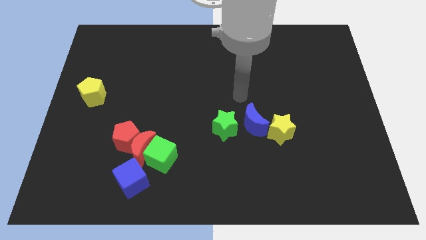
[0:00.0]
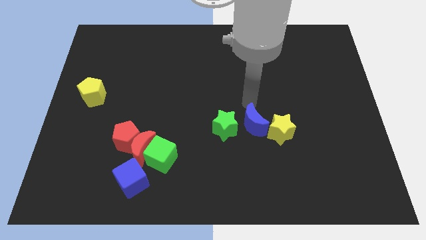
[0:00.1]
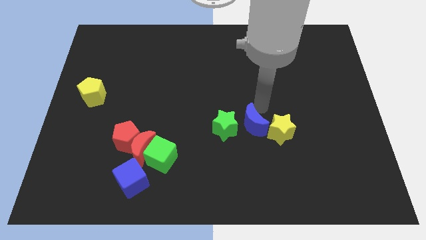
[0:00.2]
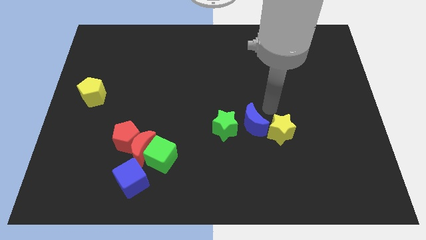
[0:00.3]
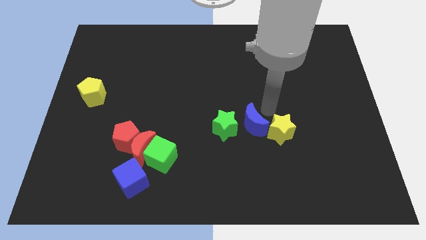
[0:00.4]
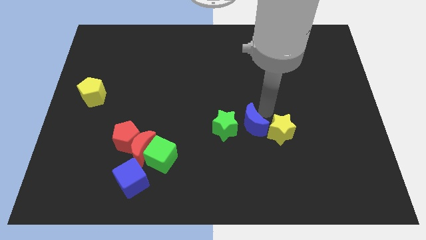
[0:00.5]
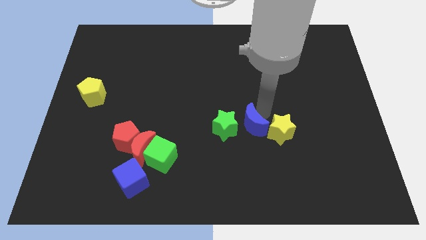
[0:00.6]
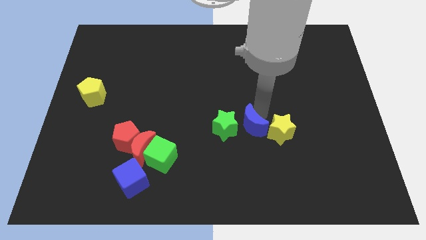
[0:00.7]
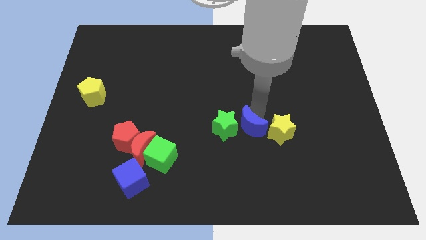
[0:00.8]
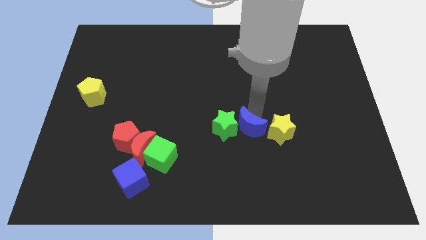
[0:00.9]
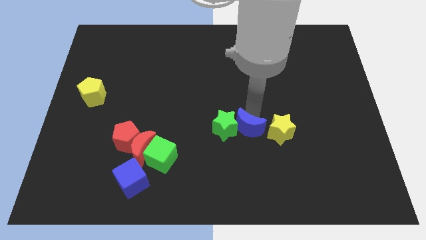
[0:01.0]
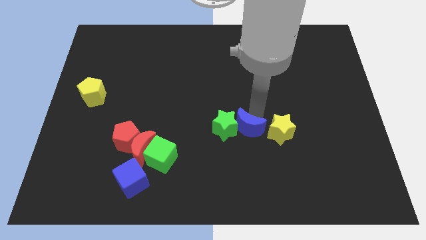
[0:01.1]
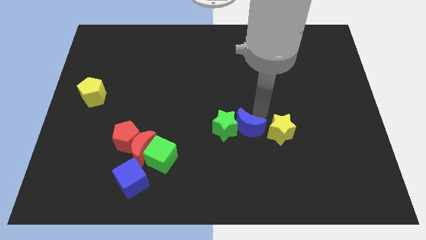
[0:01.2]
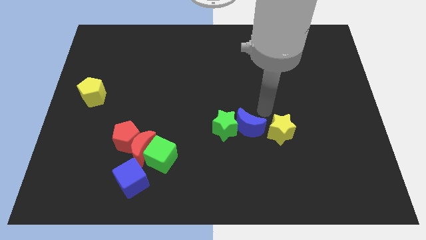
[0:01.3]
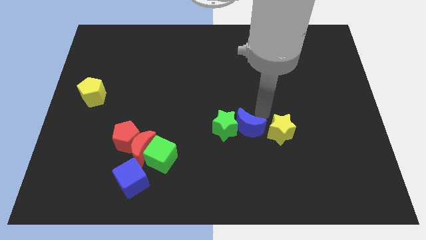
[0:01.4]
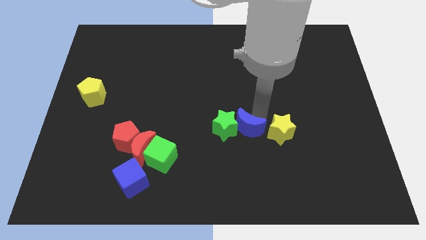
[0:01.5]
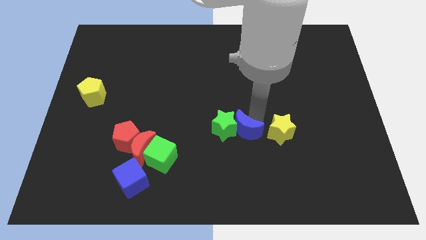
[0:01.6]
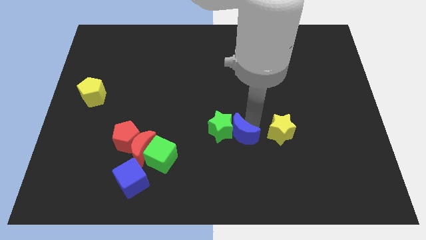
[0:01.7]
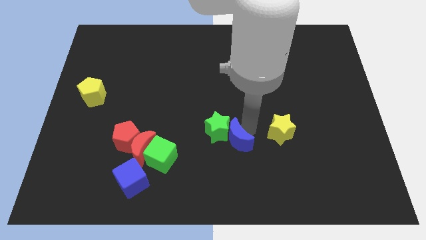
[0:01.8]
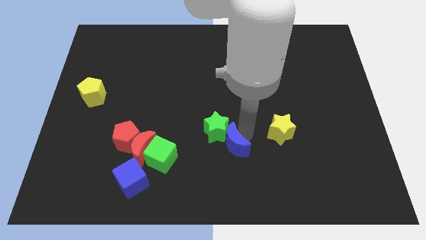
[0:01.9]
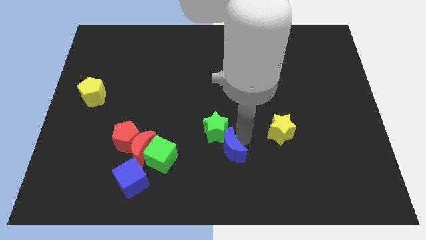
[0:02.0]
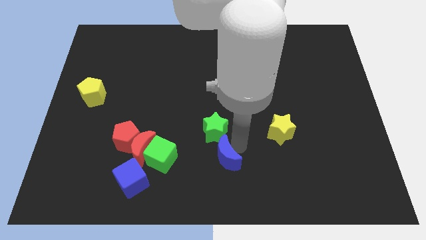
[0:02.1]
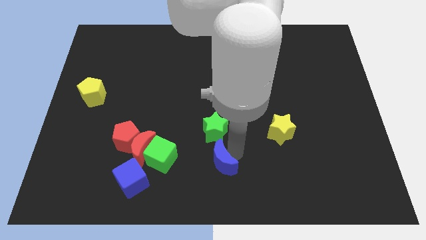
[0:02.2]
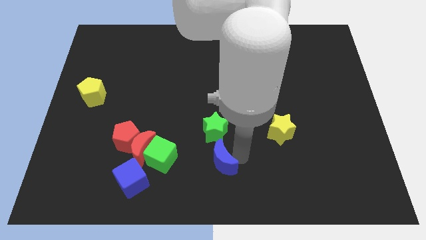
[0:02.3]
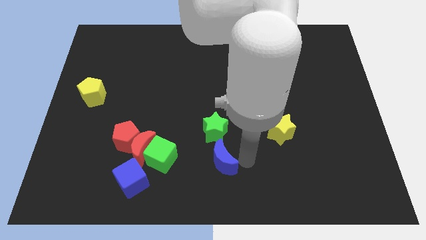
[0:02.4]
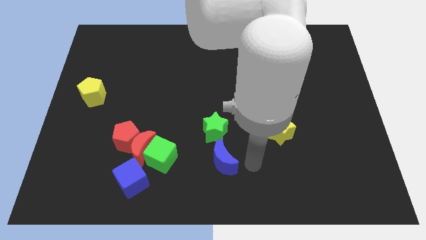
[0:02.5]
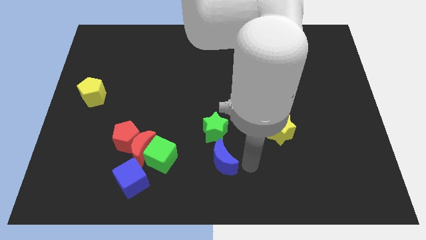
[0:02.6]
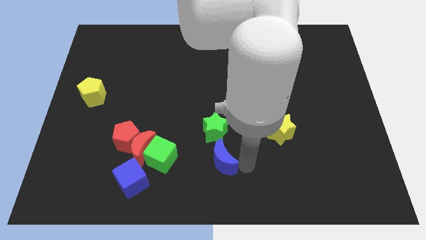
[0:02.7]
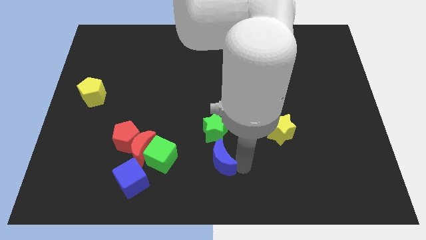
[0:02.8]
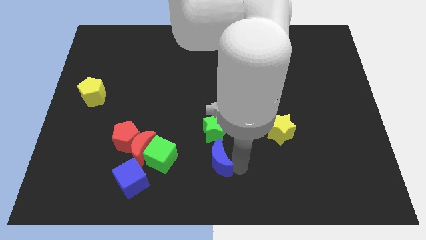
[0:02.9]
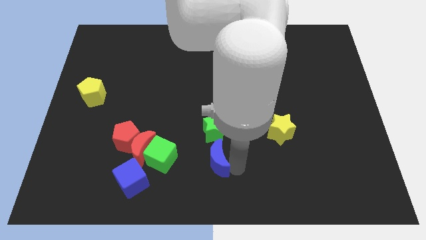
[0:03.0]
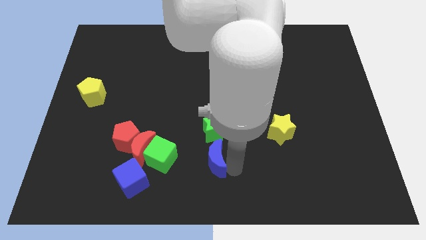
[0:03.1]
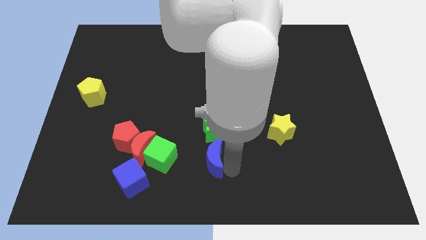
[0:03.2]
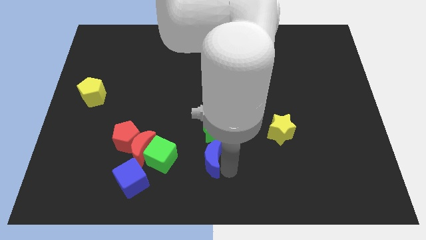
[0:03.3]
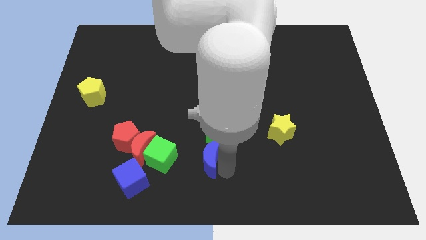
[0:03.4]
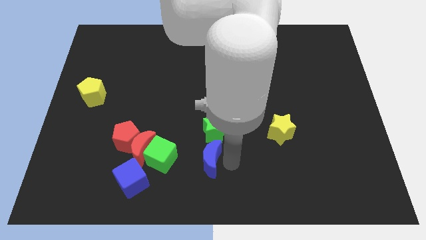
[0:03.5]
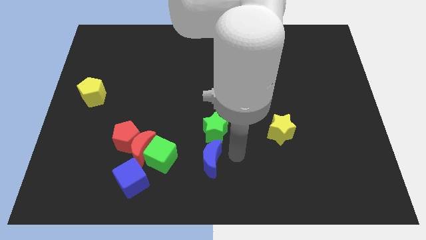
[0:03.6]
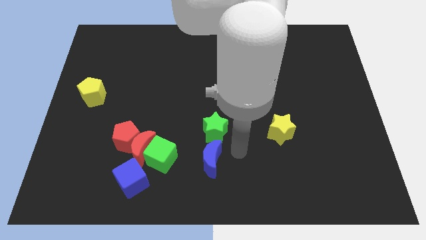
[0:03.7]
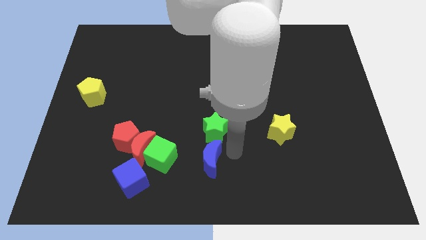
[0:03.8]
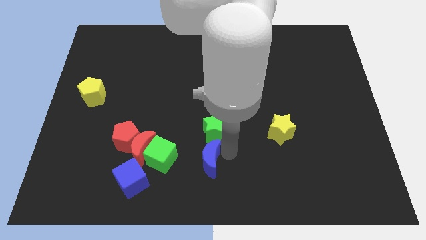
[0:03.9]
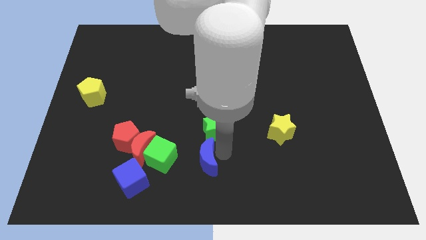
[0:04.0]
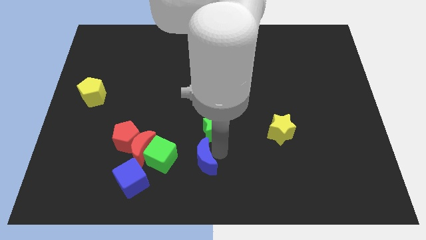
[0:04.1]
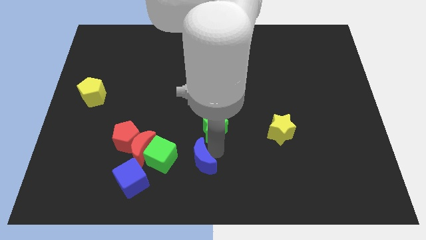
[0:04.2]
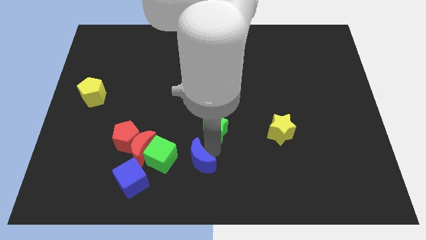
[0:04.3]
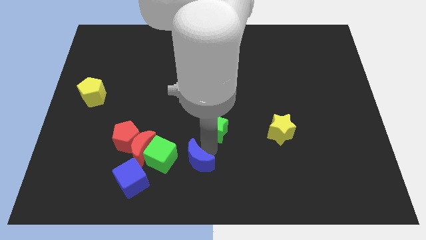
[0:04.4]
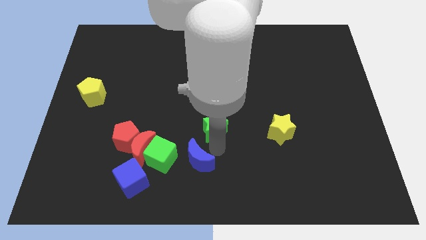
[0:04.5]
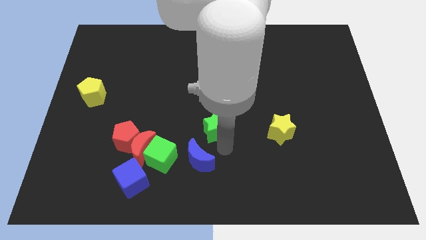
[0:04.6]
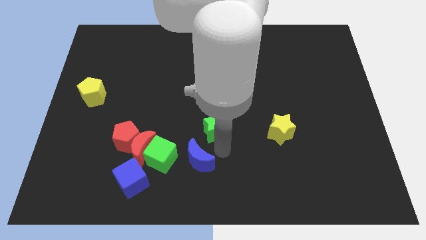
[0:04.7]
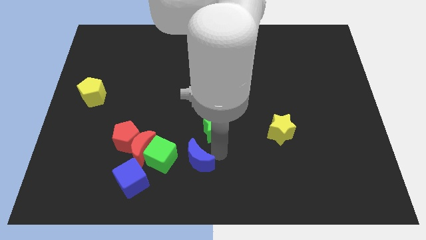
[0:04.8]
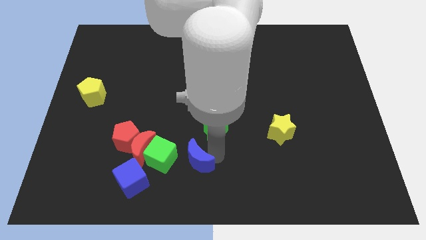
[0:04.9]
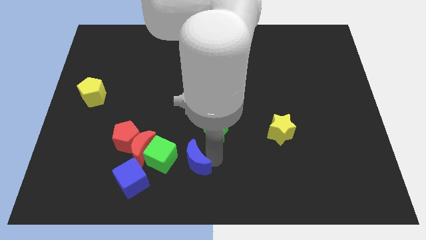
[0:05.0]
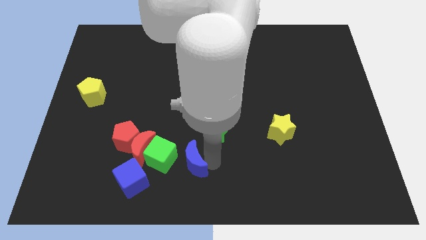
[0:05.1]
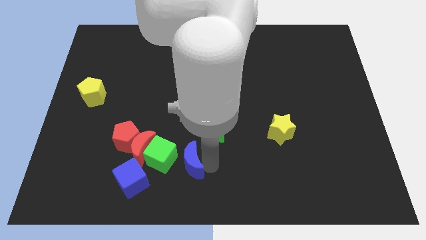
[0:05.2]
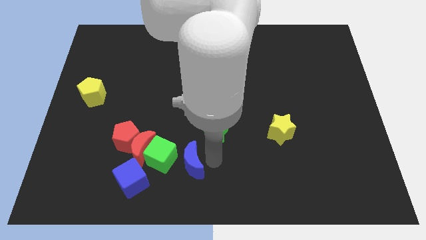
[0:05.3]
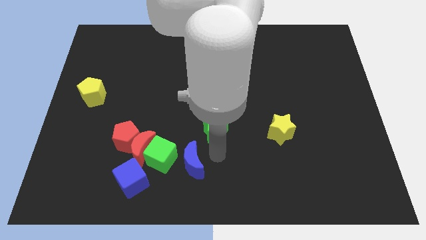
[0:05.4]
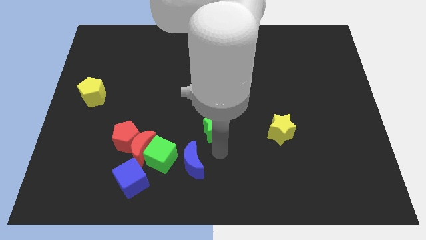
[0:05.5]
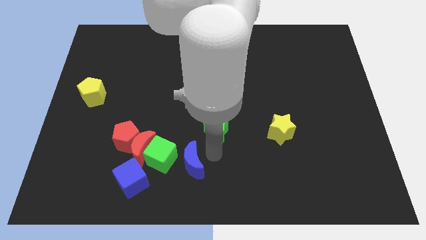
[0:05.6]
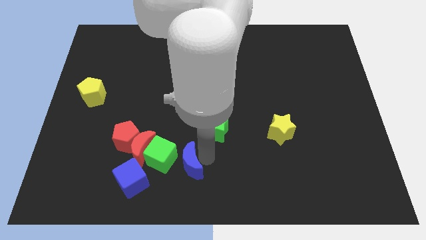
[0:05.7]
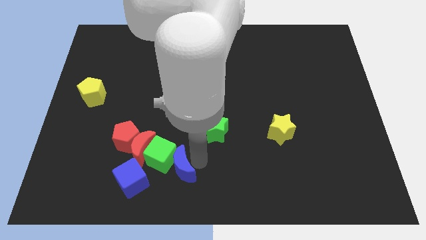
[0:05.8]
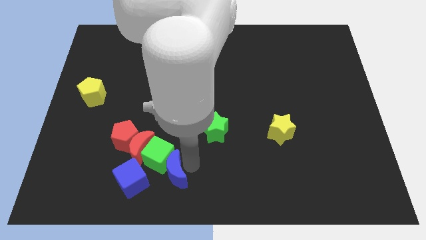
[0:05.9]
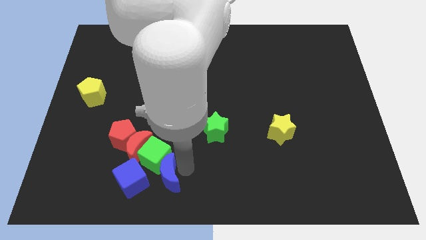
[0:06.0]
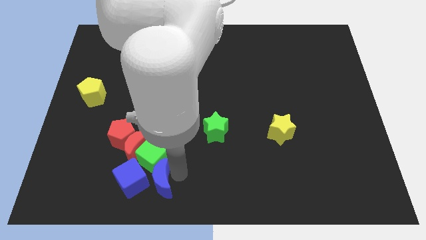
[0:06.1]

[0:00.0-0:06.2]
move the blue moon towards the blue cube
